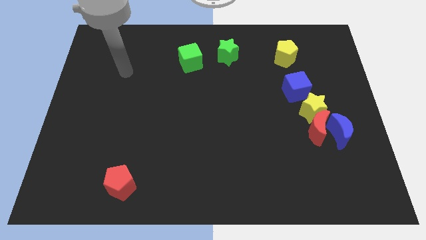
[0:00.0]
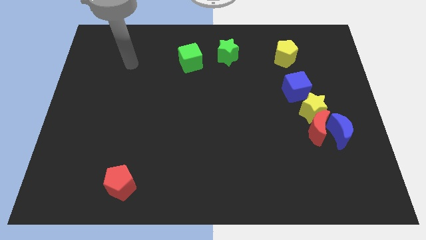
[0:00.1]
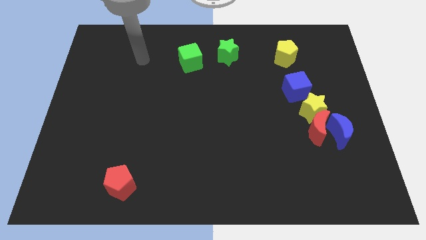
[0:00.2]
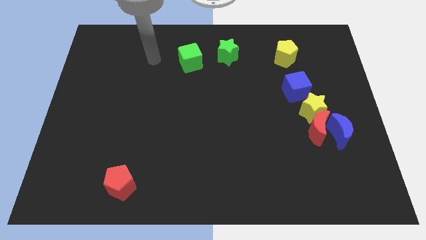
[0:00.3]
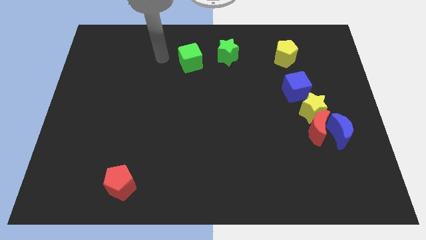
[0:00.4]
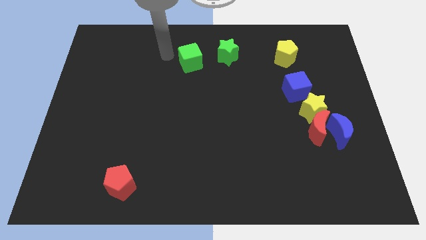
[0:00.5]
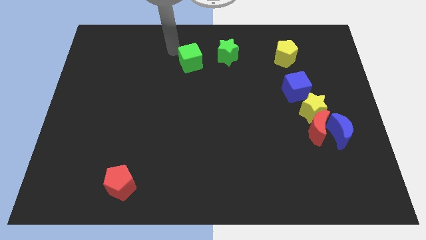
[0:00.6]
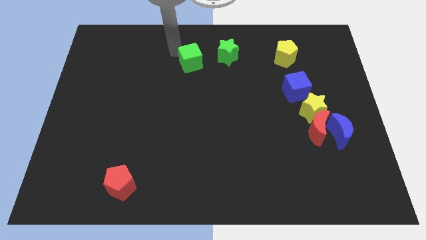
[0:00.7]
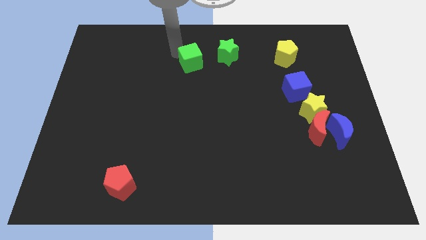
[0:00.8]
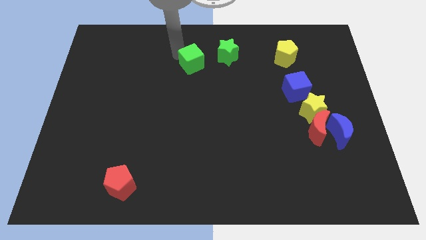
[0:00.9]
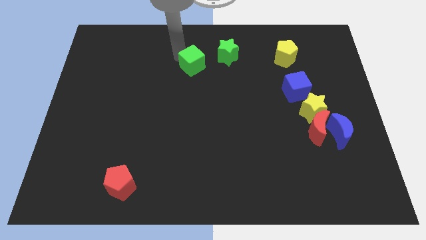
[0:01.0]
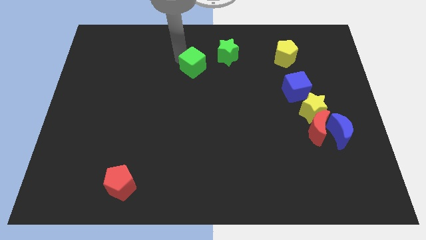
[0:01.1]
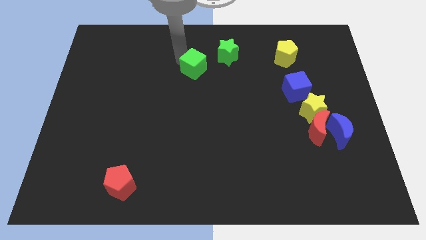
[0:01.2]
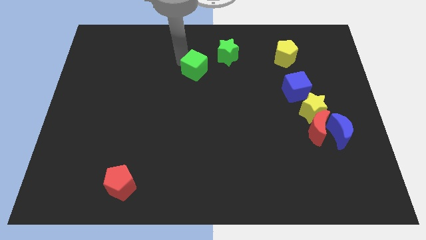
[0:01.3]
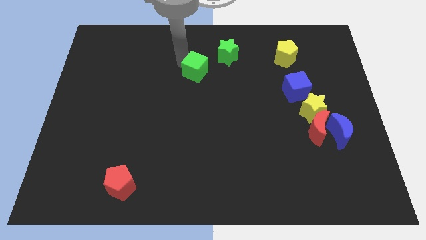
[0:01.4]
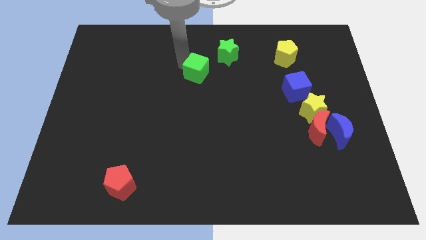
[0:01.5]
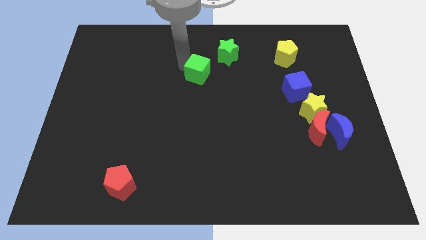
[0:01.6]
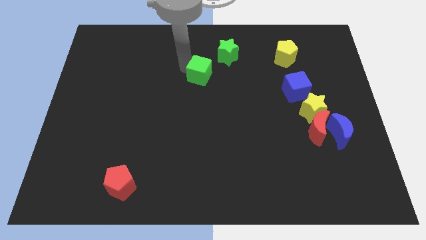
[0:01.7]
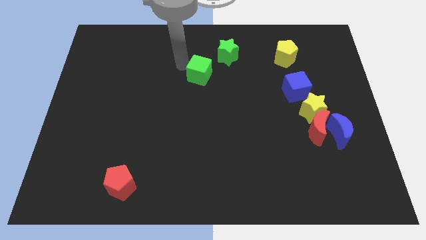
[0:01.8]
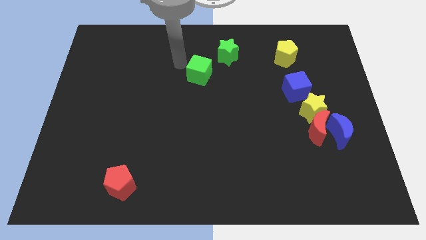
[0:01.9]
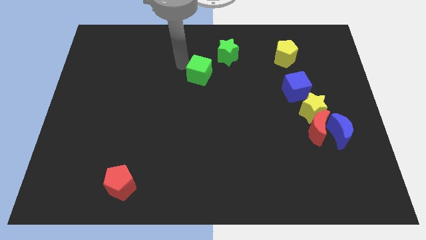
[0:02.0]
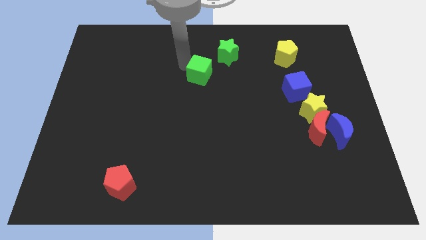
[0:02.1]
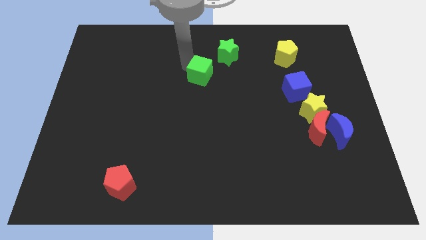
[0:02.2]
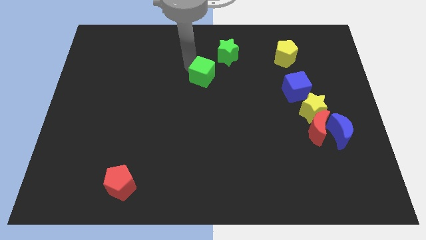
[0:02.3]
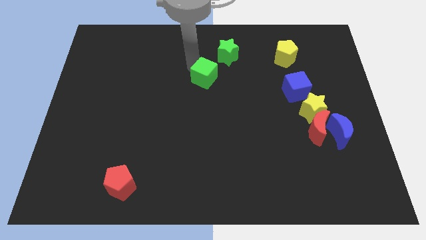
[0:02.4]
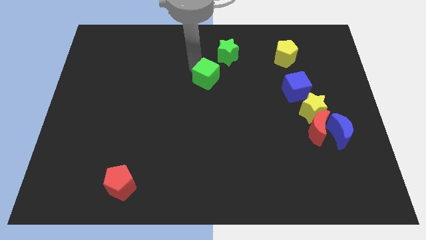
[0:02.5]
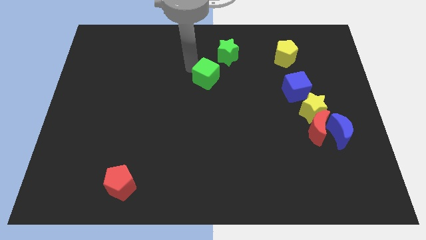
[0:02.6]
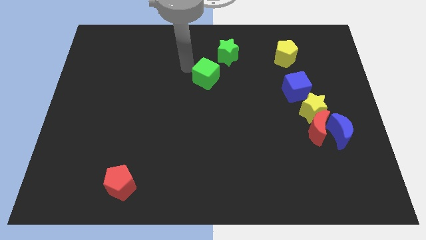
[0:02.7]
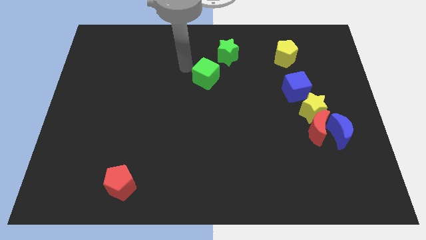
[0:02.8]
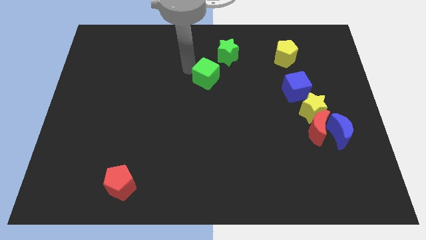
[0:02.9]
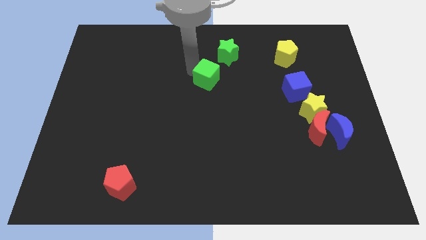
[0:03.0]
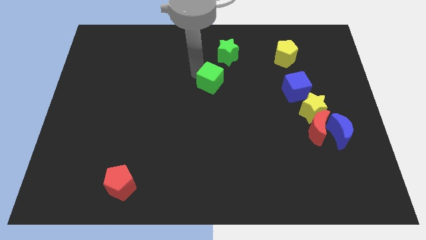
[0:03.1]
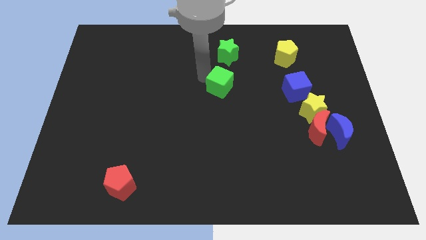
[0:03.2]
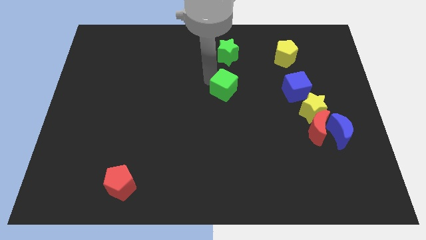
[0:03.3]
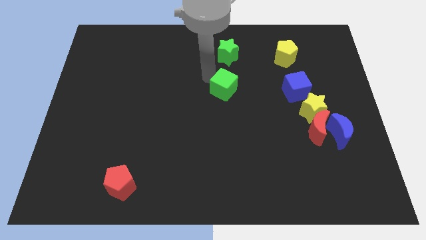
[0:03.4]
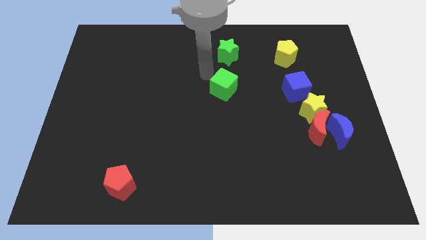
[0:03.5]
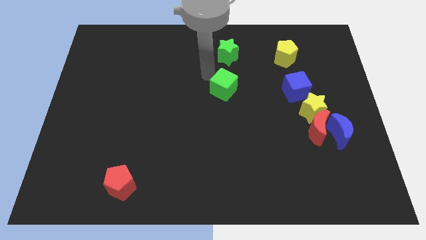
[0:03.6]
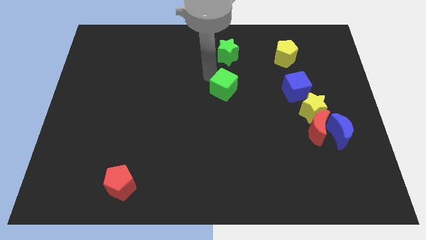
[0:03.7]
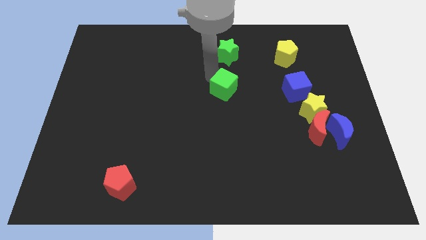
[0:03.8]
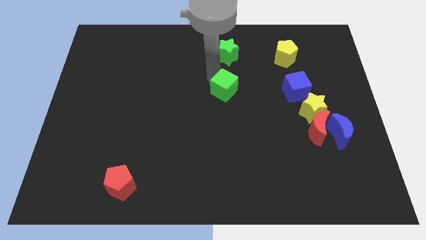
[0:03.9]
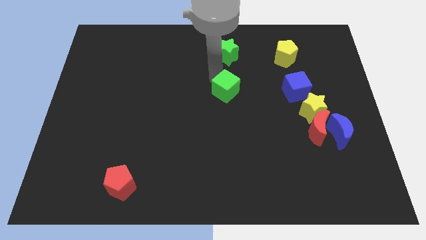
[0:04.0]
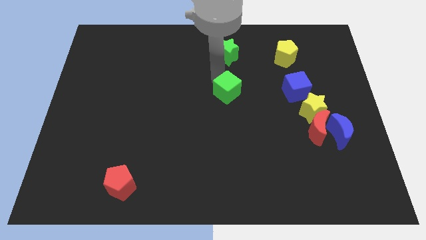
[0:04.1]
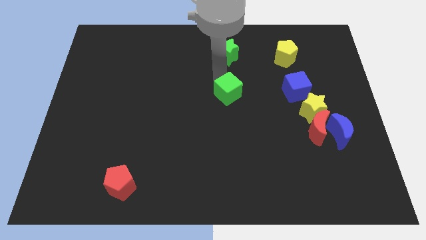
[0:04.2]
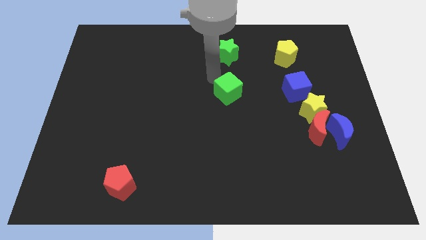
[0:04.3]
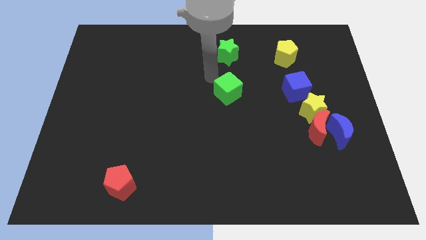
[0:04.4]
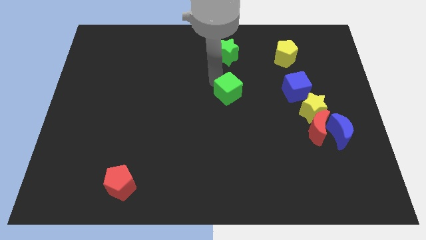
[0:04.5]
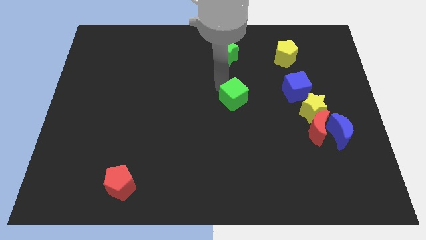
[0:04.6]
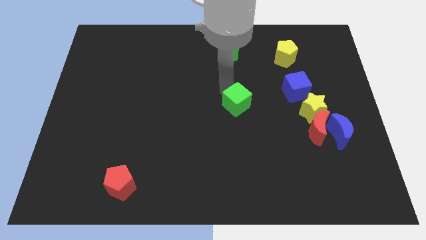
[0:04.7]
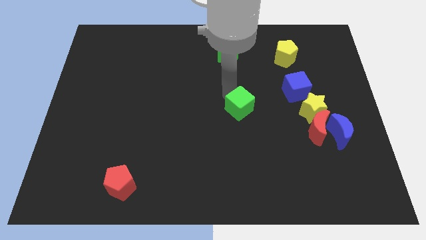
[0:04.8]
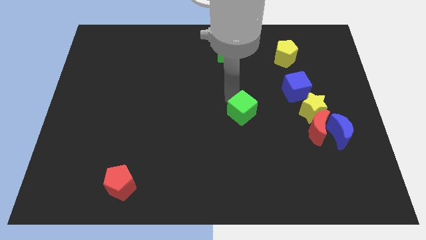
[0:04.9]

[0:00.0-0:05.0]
slide the green cube diagonally down and right

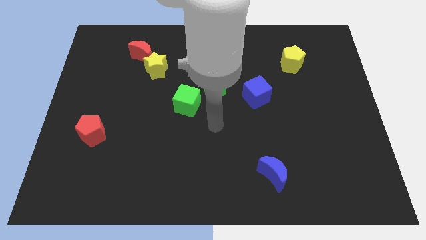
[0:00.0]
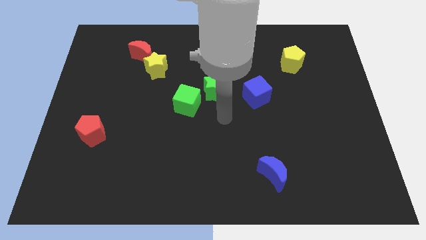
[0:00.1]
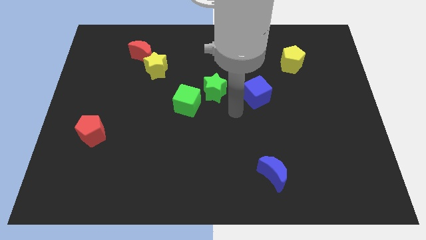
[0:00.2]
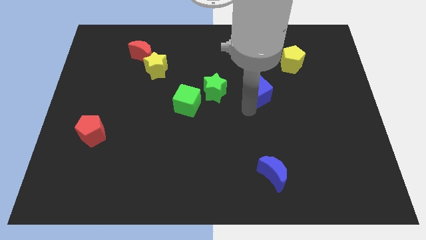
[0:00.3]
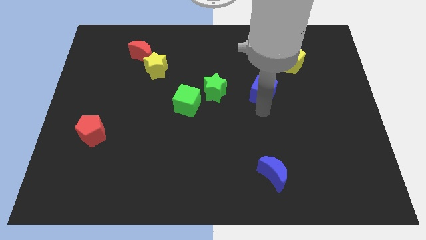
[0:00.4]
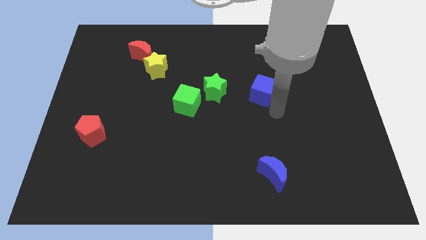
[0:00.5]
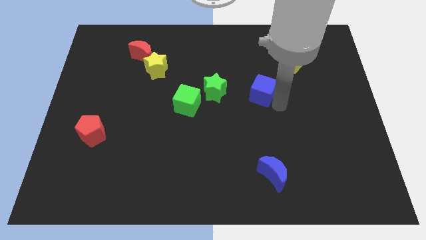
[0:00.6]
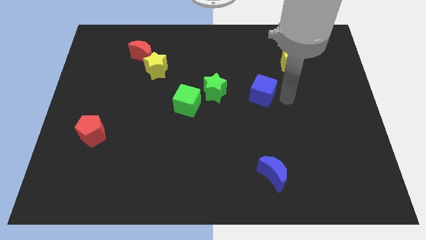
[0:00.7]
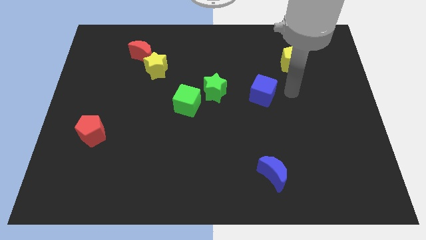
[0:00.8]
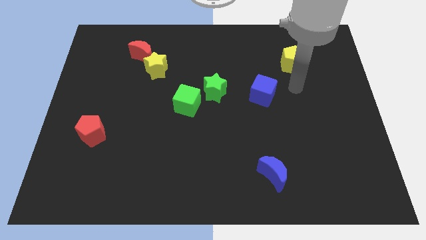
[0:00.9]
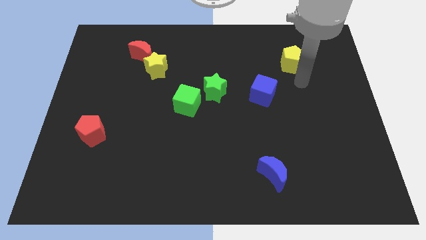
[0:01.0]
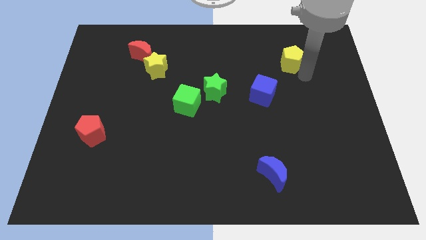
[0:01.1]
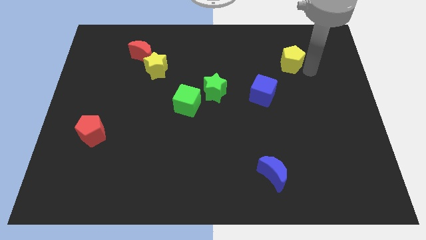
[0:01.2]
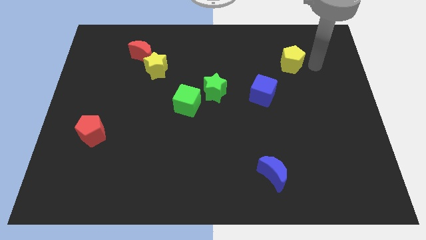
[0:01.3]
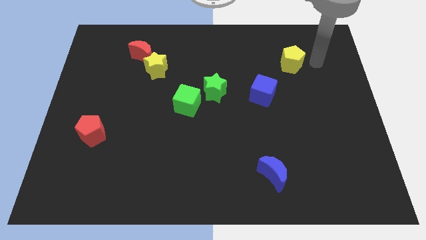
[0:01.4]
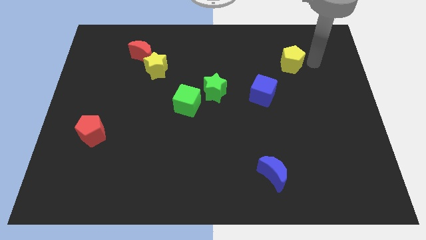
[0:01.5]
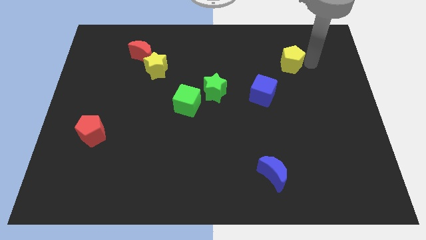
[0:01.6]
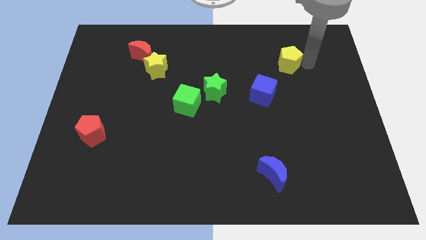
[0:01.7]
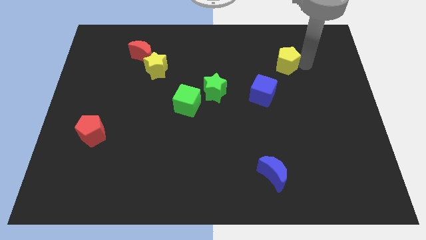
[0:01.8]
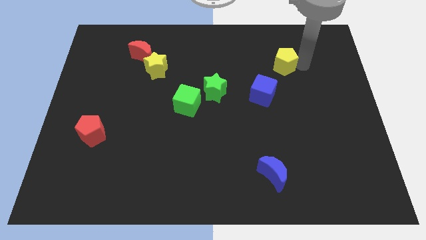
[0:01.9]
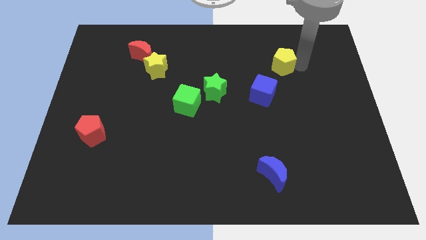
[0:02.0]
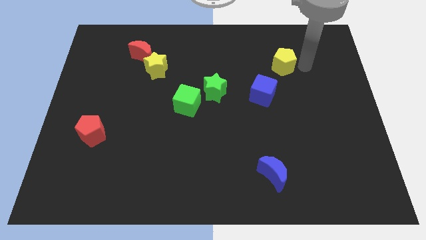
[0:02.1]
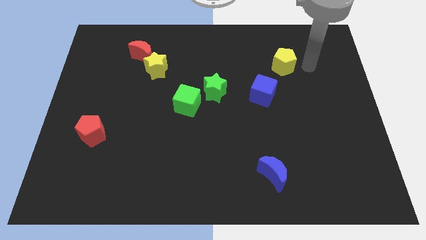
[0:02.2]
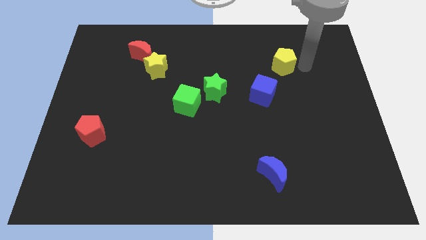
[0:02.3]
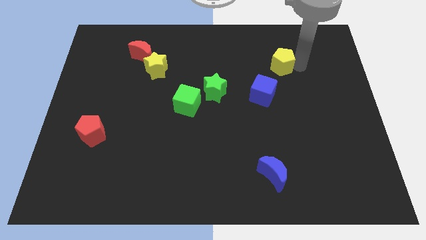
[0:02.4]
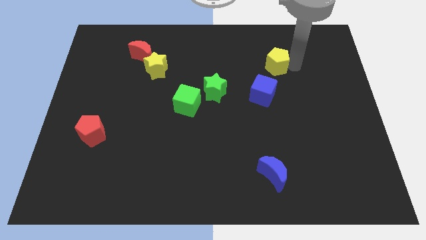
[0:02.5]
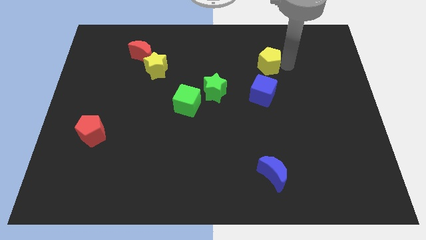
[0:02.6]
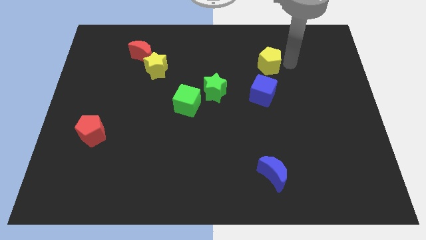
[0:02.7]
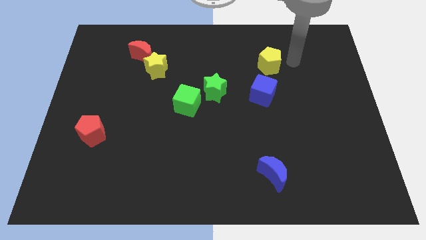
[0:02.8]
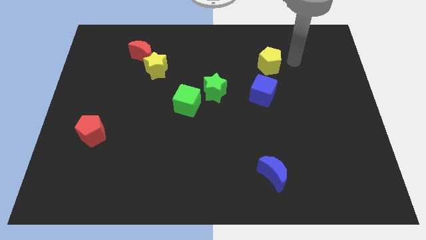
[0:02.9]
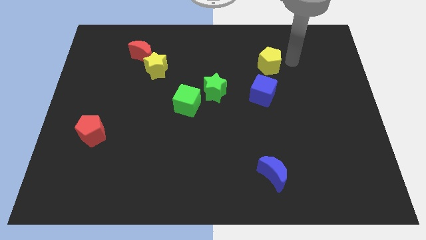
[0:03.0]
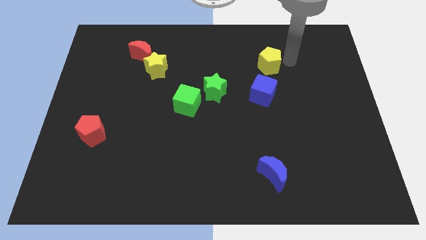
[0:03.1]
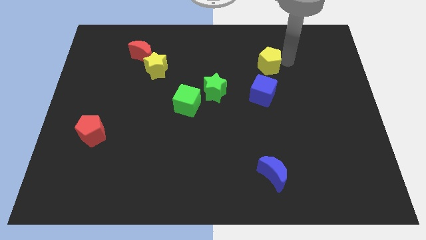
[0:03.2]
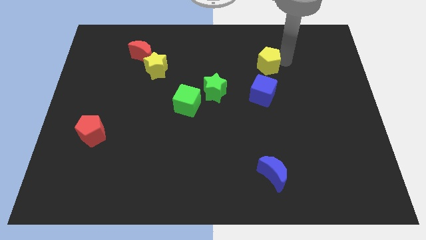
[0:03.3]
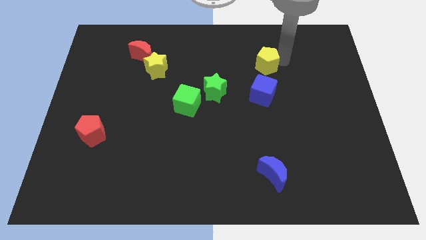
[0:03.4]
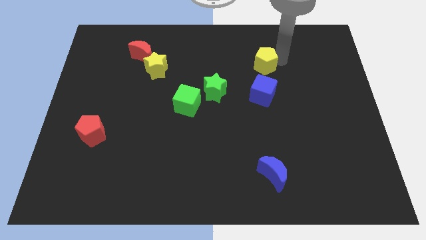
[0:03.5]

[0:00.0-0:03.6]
push the yellow pentagon to the left a little
